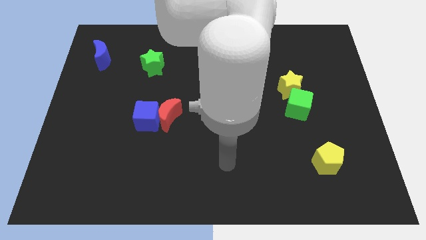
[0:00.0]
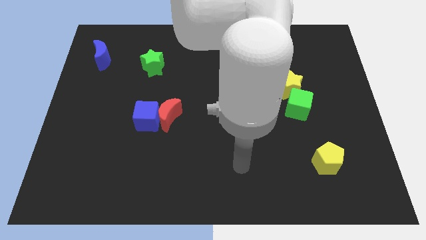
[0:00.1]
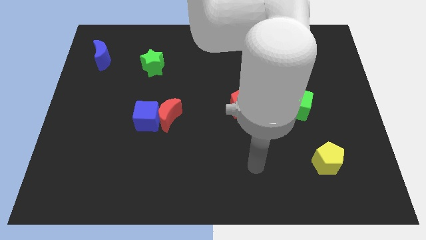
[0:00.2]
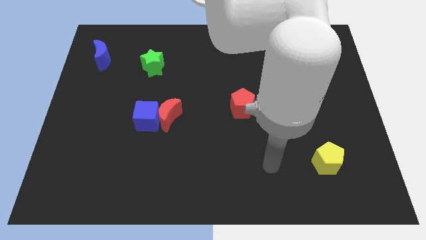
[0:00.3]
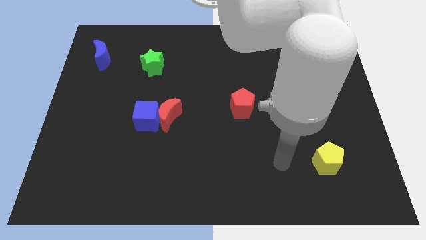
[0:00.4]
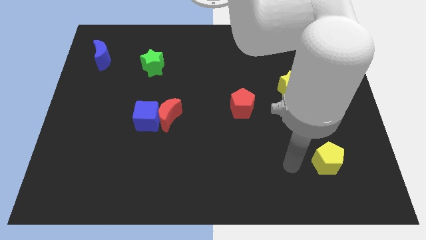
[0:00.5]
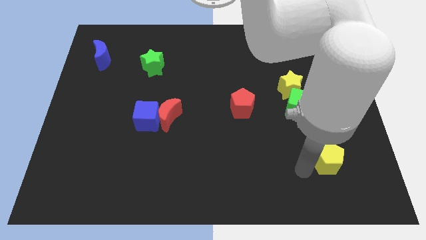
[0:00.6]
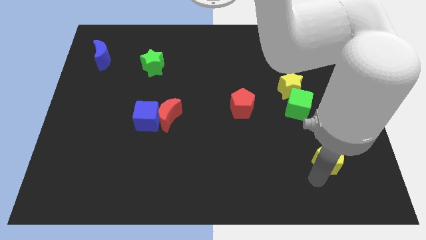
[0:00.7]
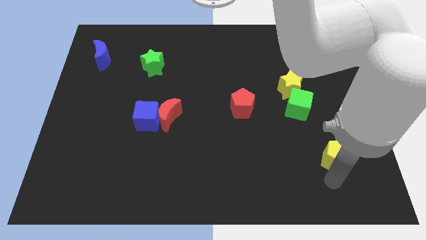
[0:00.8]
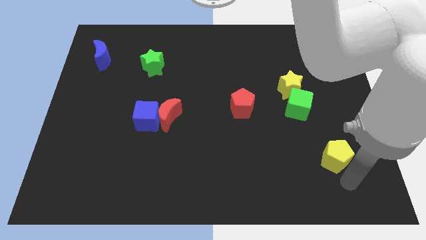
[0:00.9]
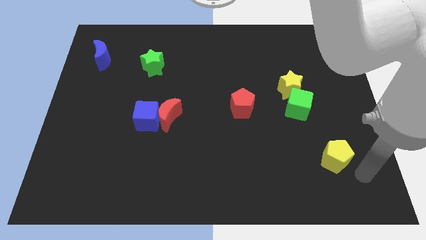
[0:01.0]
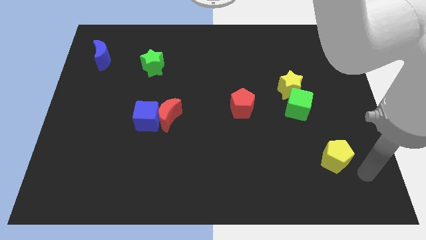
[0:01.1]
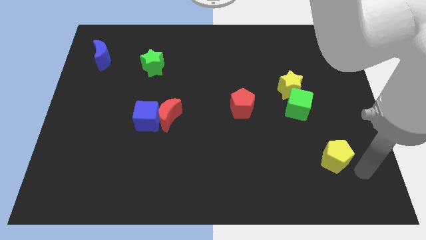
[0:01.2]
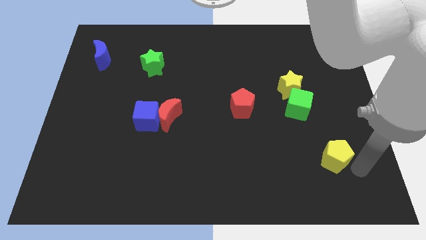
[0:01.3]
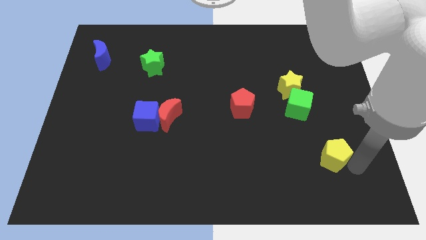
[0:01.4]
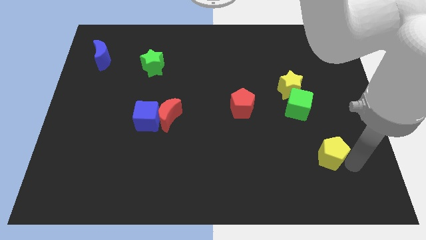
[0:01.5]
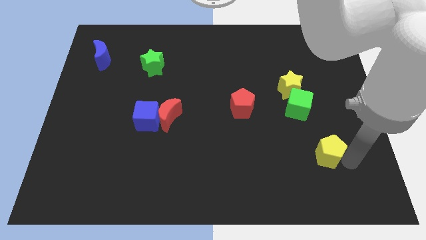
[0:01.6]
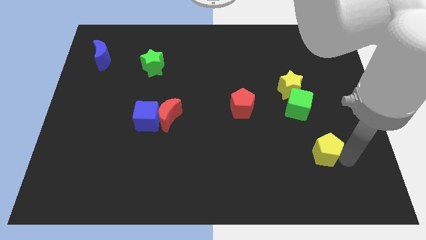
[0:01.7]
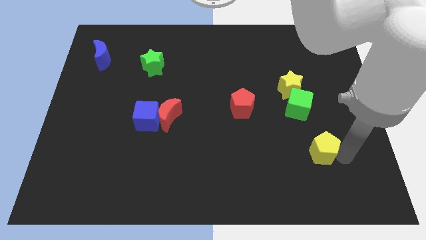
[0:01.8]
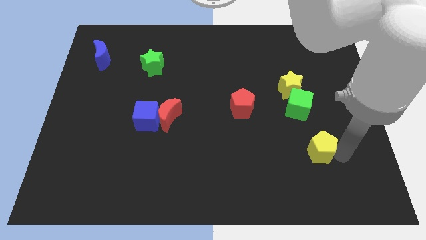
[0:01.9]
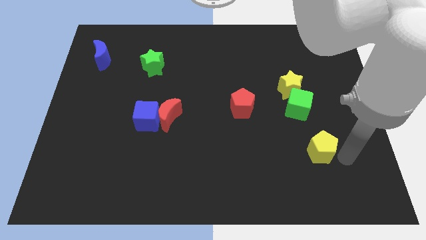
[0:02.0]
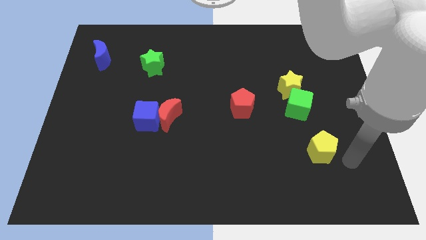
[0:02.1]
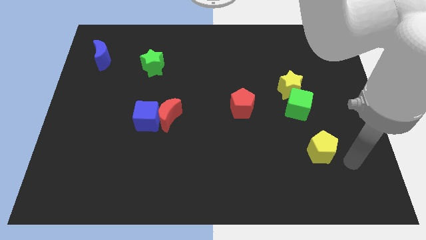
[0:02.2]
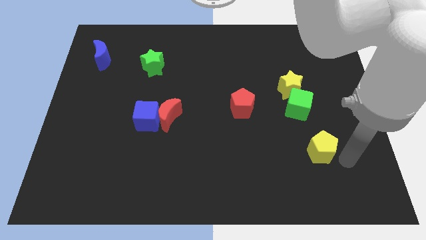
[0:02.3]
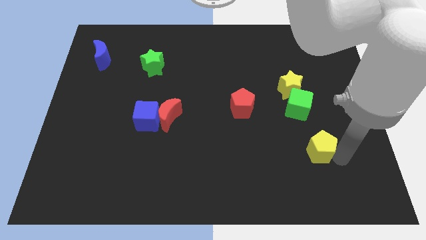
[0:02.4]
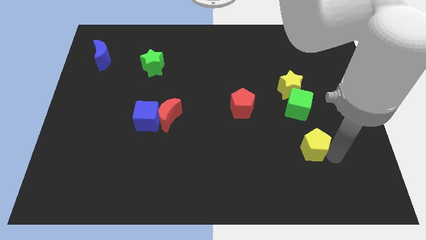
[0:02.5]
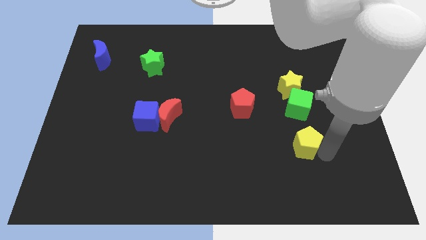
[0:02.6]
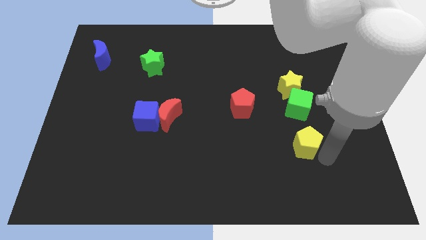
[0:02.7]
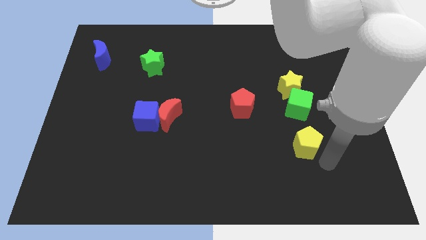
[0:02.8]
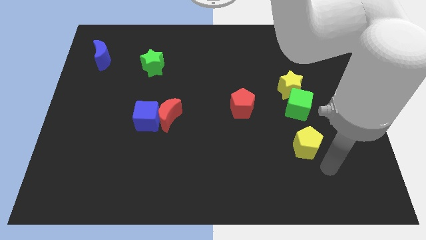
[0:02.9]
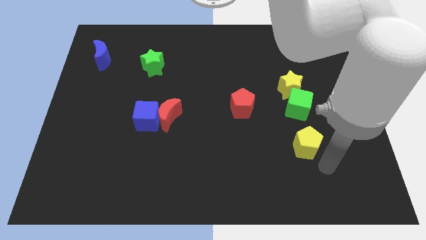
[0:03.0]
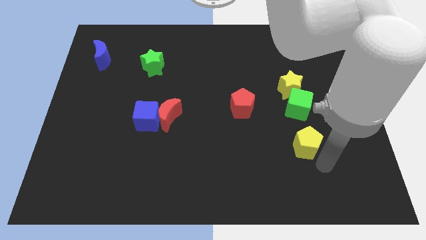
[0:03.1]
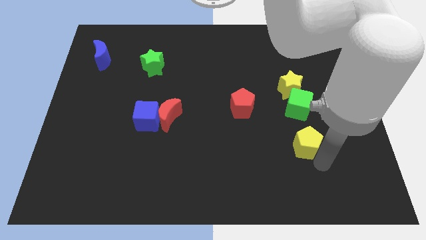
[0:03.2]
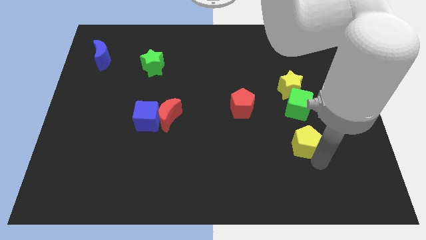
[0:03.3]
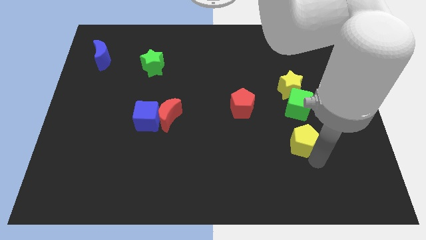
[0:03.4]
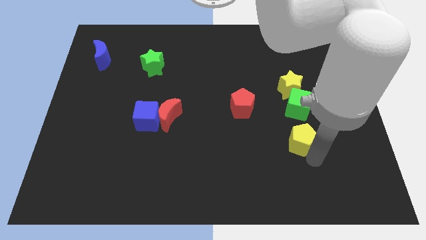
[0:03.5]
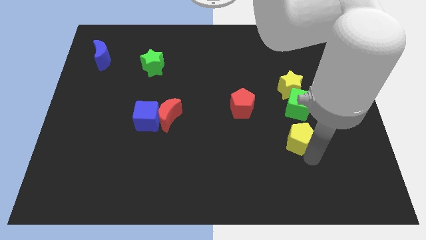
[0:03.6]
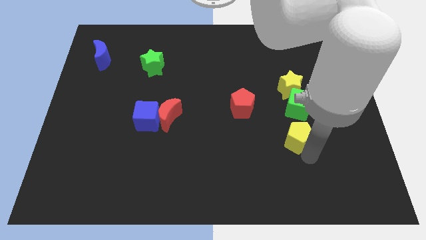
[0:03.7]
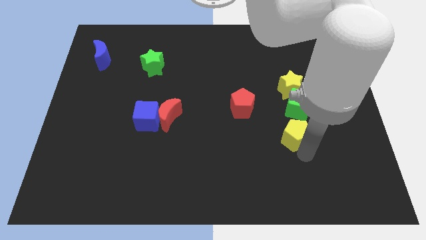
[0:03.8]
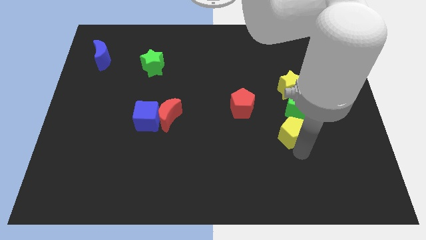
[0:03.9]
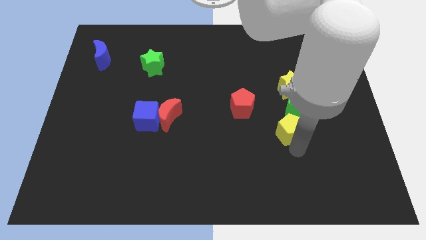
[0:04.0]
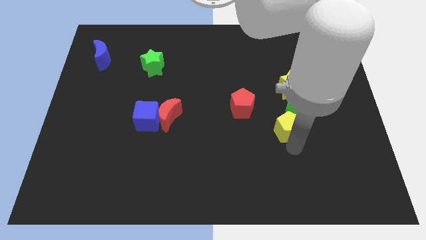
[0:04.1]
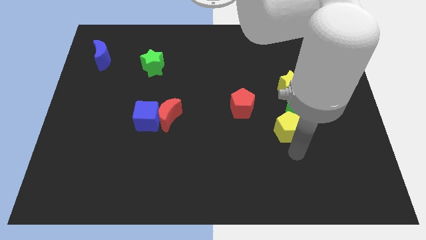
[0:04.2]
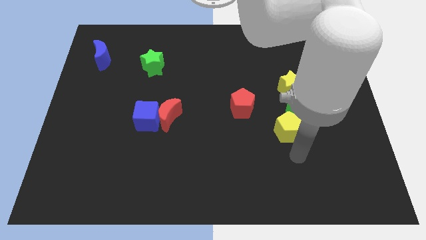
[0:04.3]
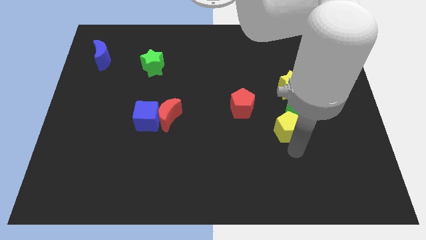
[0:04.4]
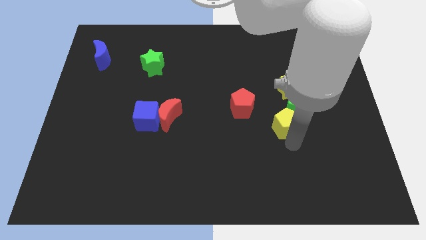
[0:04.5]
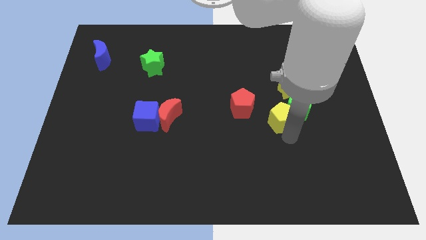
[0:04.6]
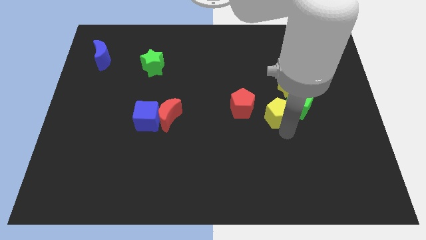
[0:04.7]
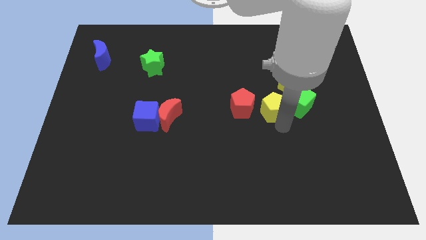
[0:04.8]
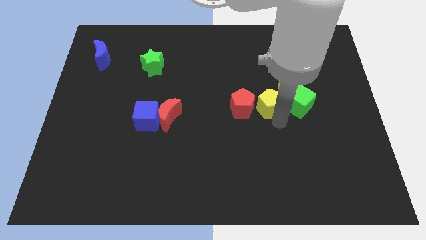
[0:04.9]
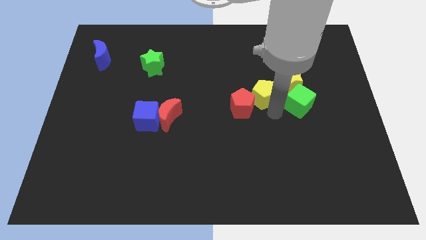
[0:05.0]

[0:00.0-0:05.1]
push the yellow pentagon diagonally upwards and left

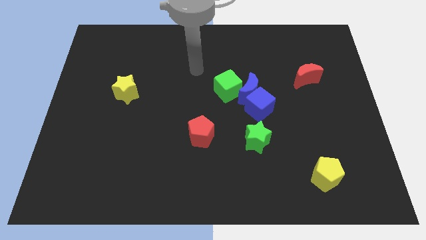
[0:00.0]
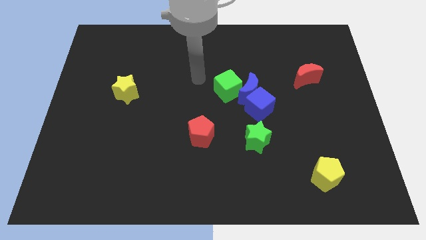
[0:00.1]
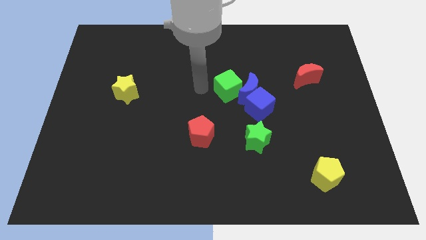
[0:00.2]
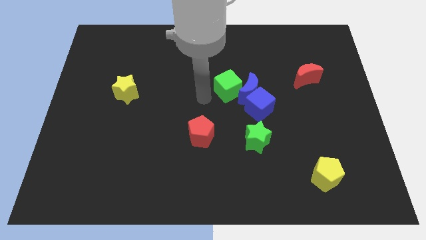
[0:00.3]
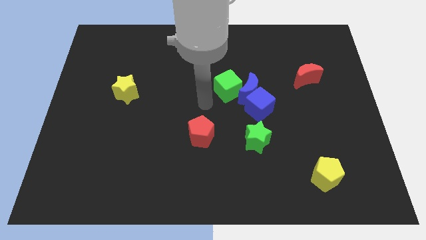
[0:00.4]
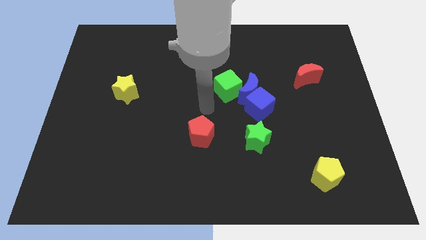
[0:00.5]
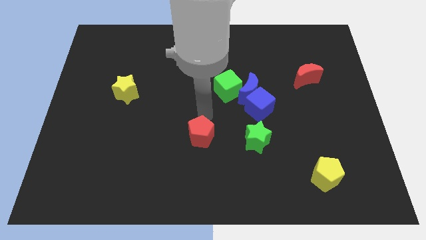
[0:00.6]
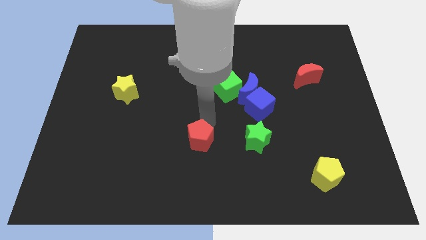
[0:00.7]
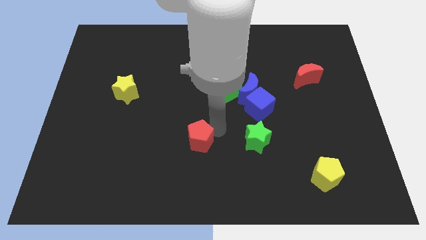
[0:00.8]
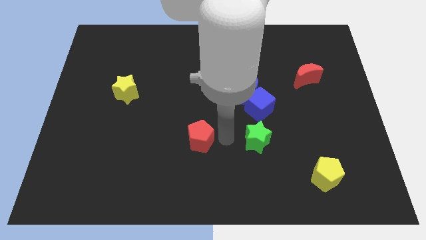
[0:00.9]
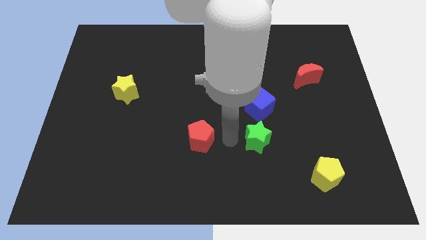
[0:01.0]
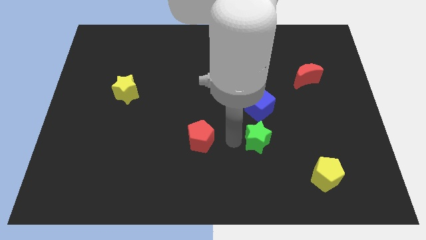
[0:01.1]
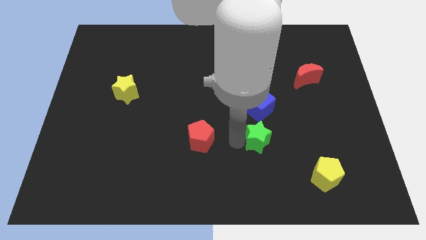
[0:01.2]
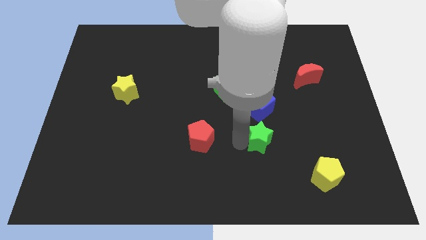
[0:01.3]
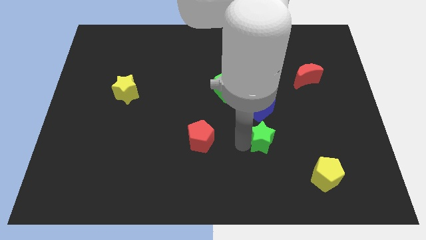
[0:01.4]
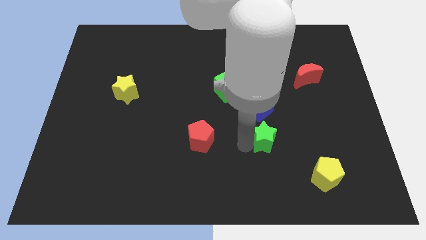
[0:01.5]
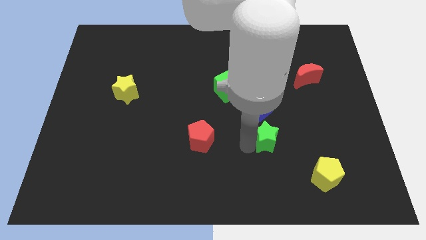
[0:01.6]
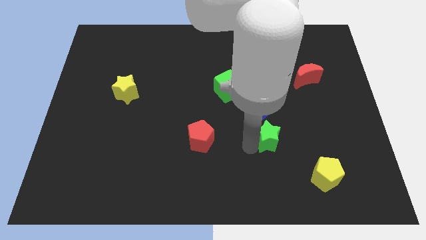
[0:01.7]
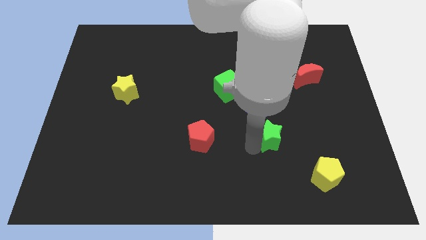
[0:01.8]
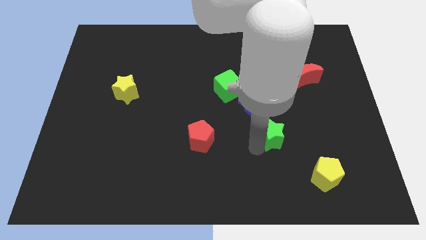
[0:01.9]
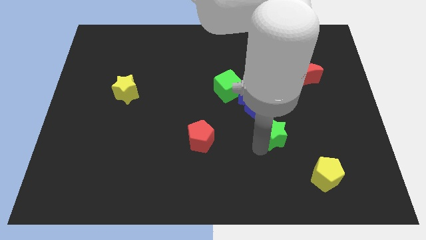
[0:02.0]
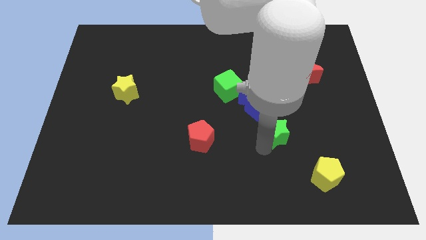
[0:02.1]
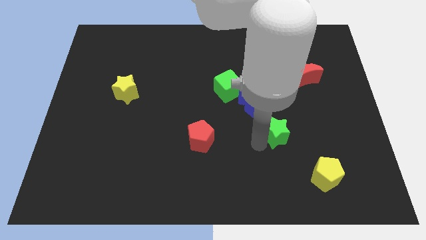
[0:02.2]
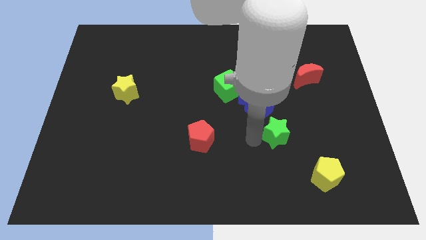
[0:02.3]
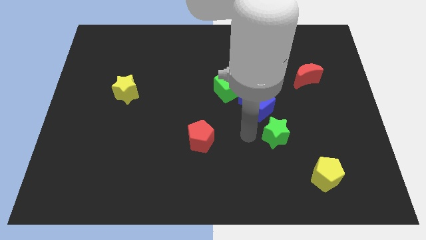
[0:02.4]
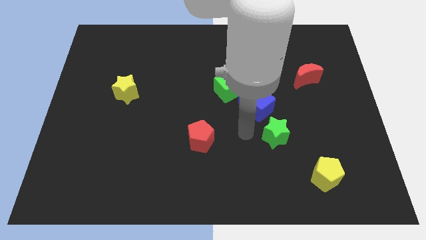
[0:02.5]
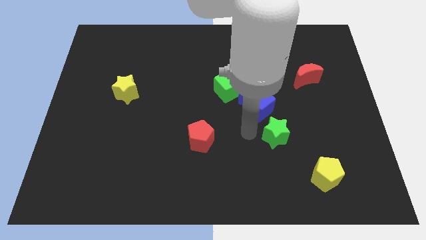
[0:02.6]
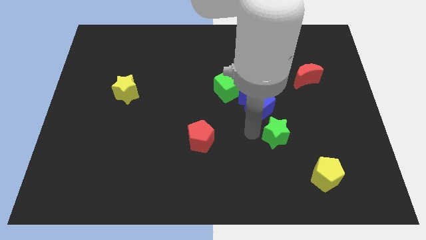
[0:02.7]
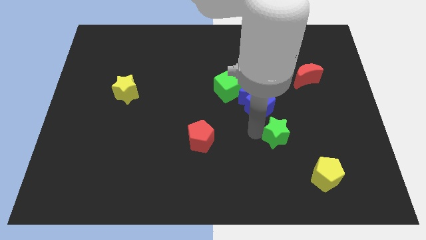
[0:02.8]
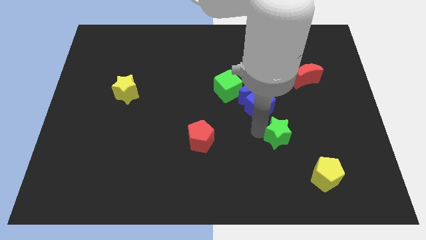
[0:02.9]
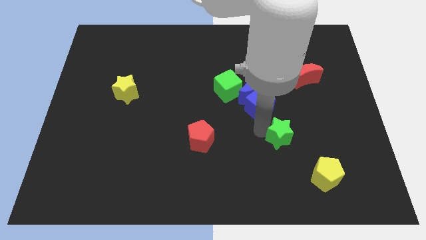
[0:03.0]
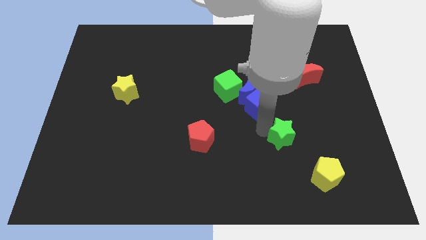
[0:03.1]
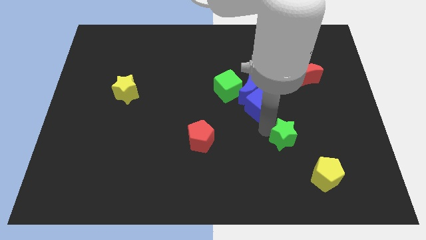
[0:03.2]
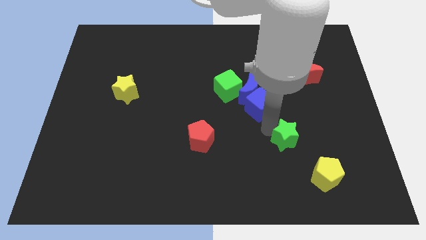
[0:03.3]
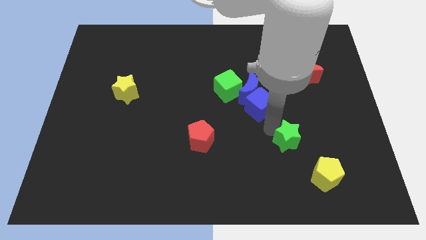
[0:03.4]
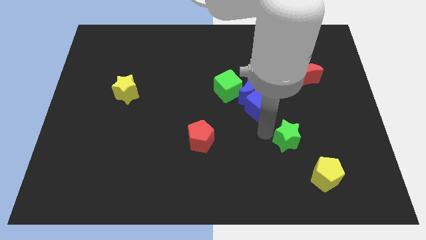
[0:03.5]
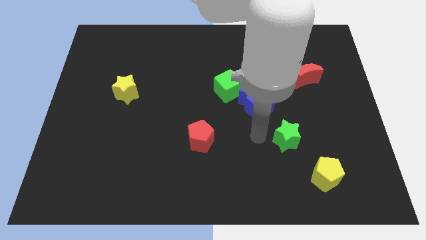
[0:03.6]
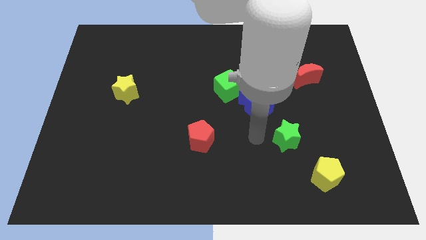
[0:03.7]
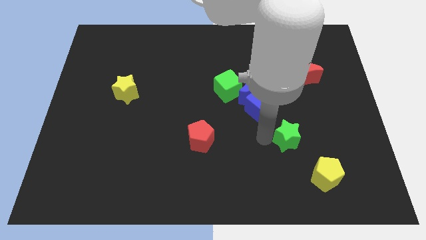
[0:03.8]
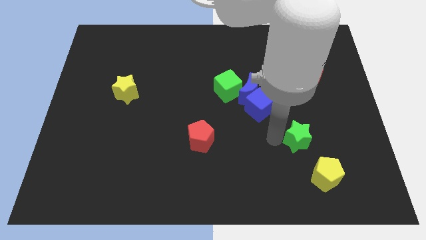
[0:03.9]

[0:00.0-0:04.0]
push the green star a little bit to the right
